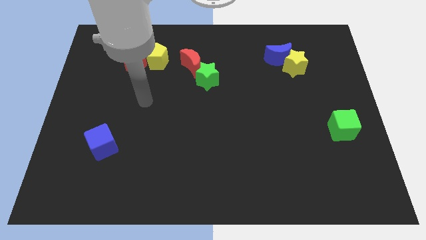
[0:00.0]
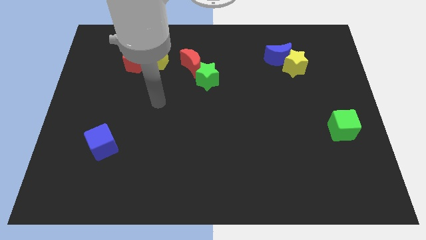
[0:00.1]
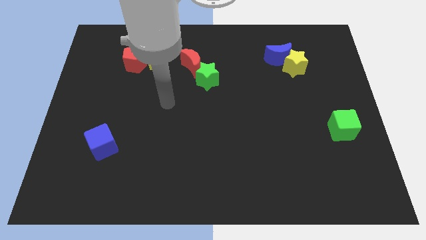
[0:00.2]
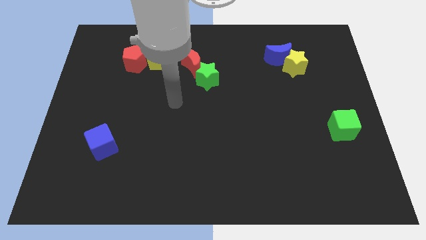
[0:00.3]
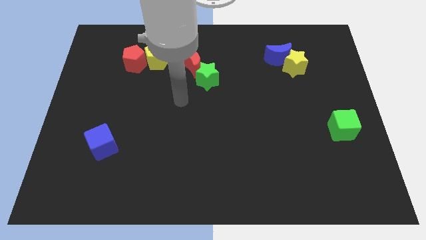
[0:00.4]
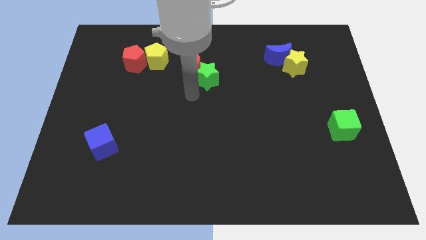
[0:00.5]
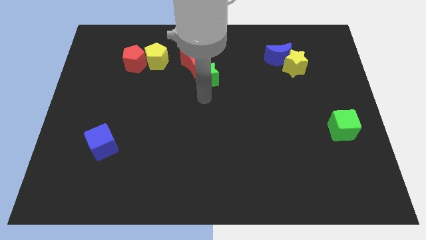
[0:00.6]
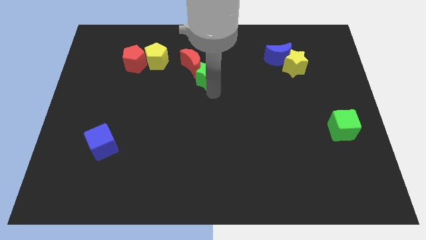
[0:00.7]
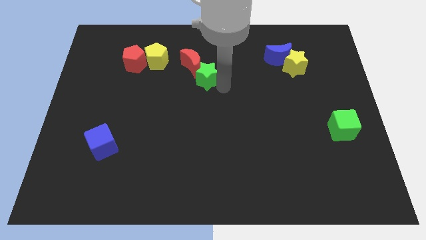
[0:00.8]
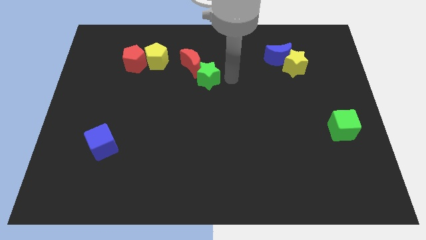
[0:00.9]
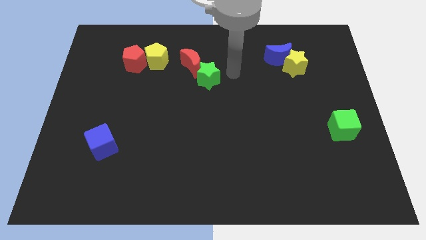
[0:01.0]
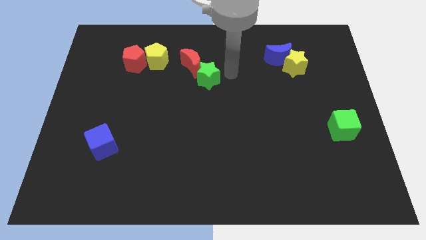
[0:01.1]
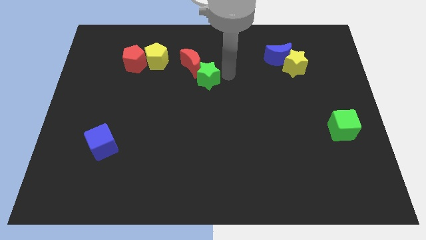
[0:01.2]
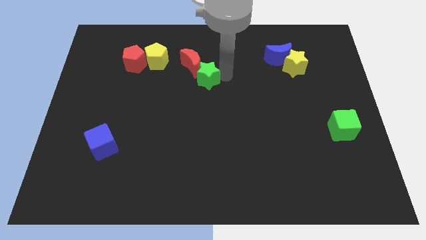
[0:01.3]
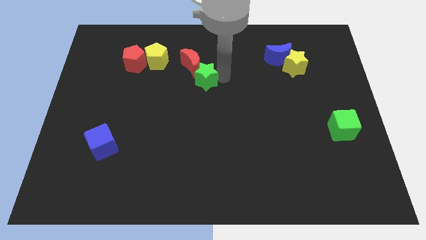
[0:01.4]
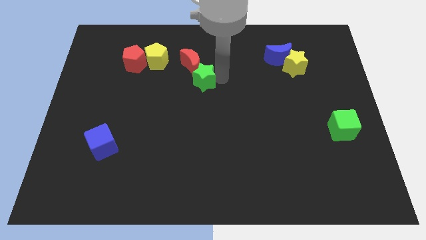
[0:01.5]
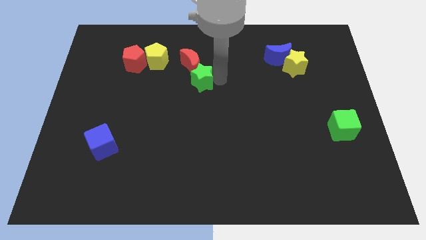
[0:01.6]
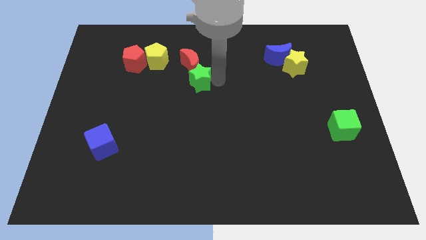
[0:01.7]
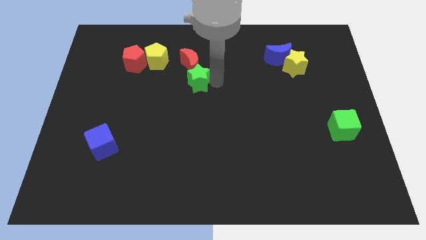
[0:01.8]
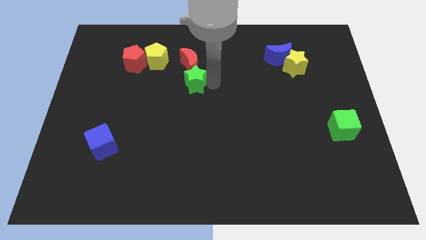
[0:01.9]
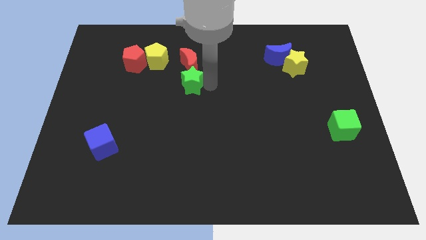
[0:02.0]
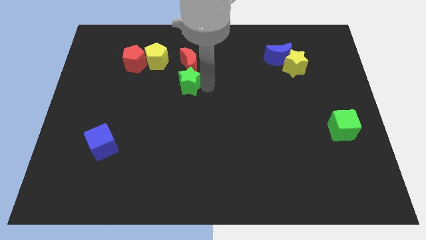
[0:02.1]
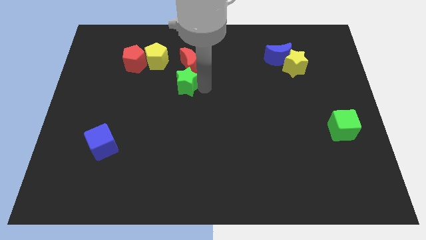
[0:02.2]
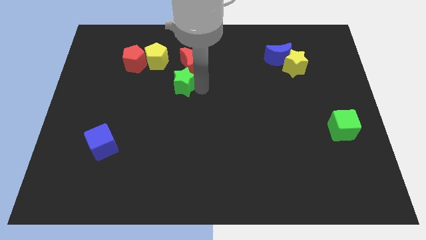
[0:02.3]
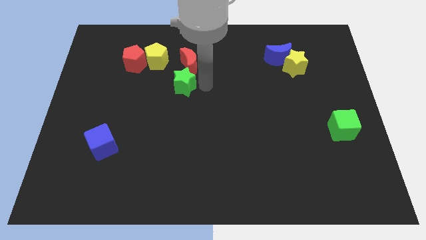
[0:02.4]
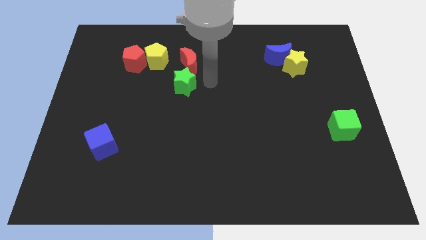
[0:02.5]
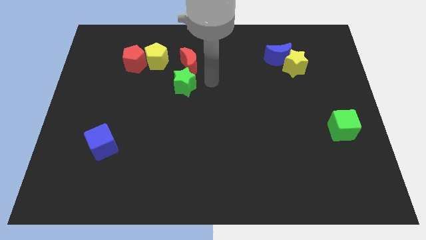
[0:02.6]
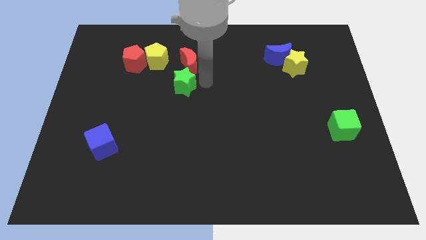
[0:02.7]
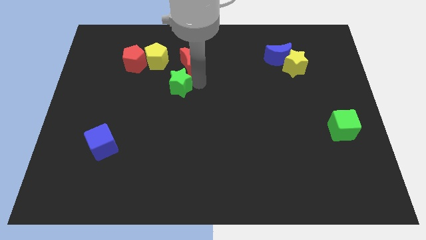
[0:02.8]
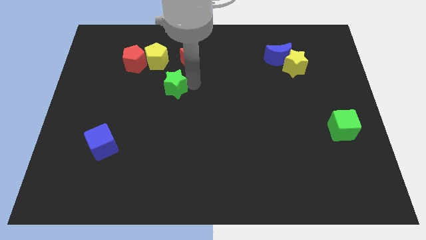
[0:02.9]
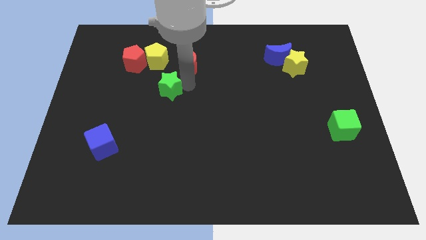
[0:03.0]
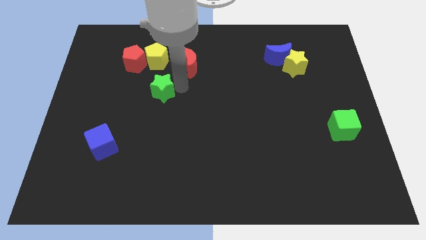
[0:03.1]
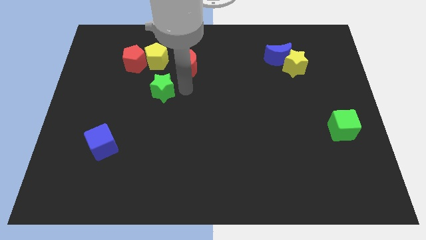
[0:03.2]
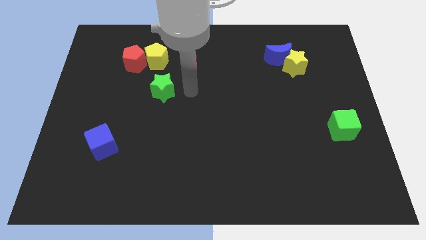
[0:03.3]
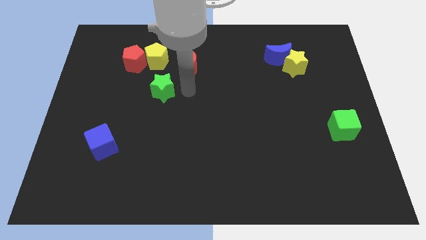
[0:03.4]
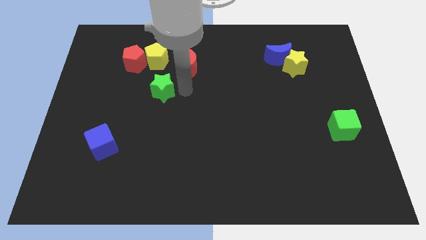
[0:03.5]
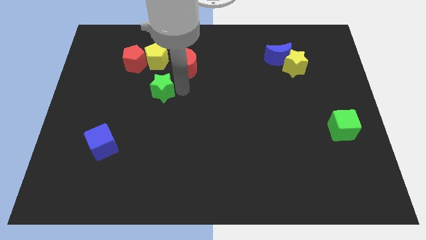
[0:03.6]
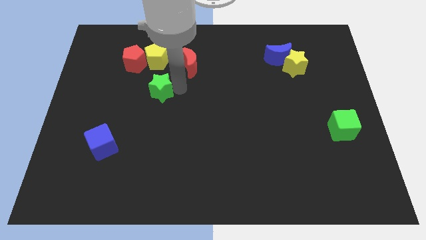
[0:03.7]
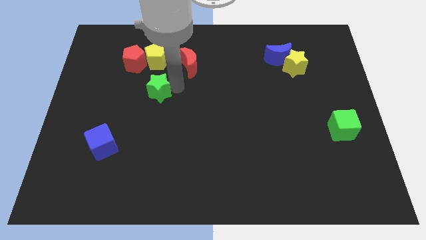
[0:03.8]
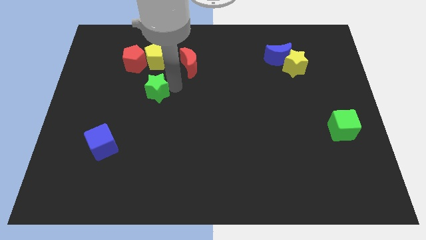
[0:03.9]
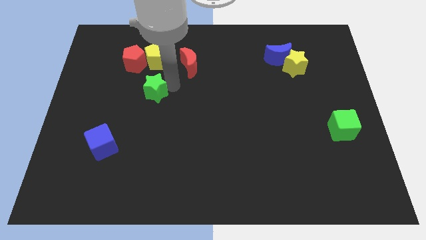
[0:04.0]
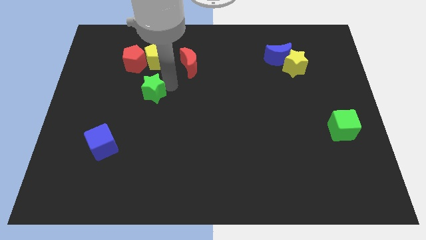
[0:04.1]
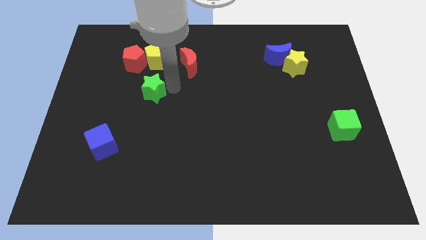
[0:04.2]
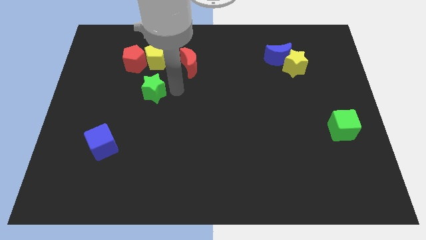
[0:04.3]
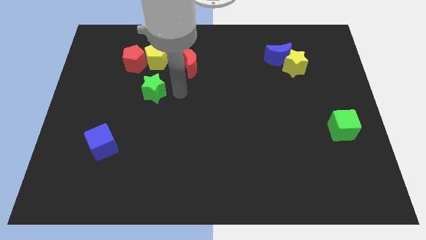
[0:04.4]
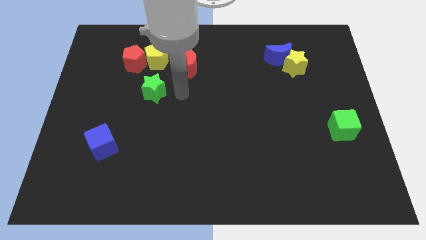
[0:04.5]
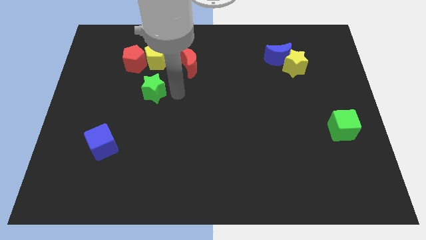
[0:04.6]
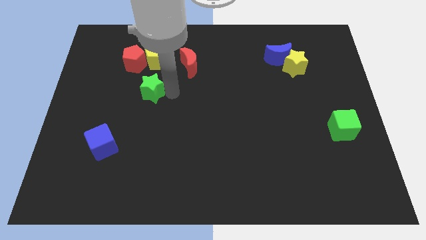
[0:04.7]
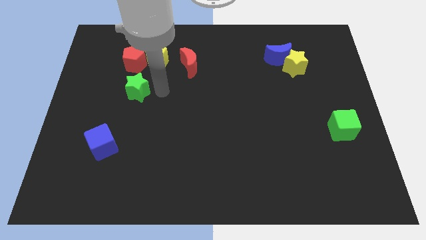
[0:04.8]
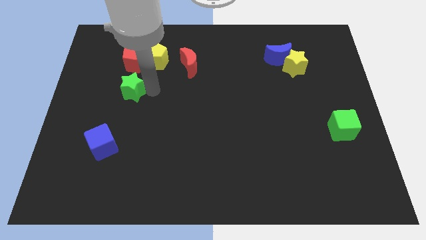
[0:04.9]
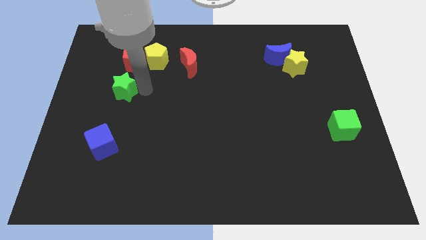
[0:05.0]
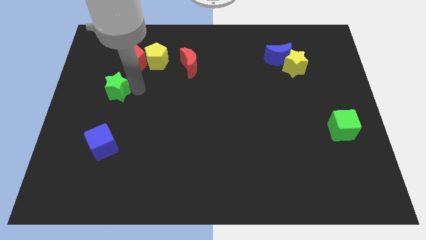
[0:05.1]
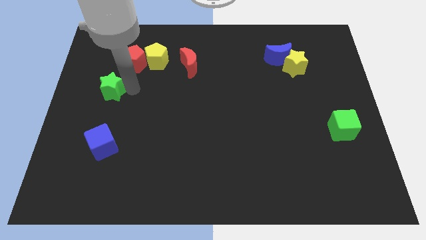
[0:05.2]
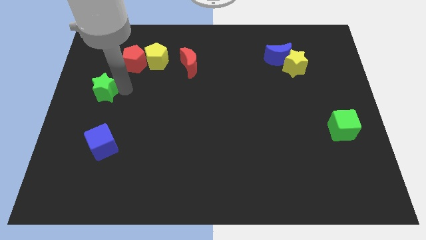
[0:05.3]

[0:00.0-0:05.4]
move the green star to the left side of the board

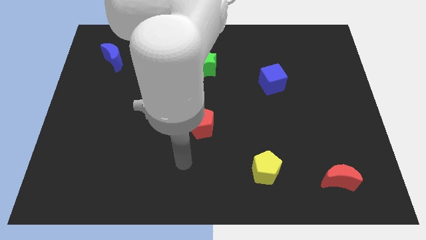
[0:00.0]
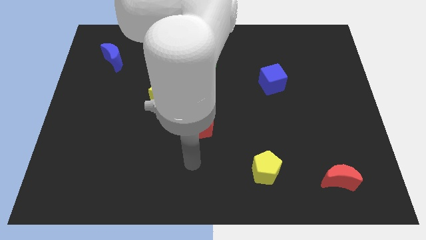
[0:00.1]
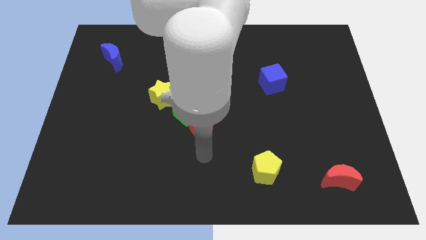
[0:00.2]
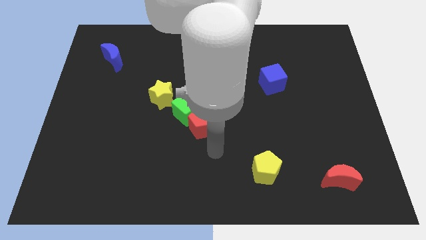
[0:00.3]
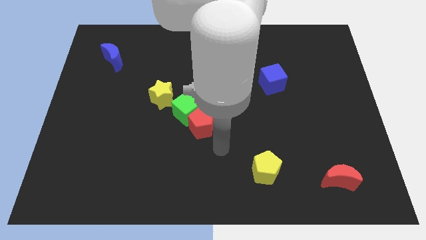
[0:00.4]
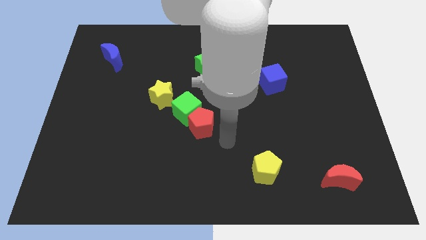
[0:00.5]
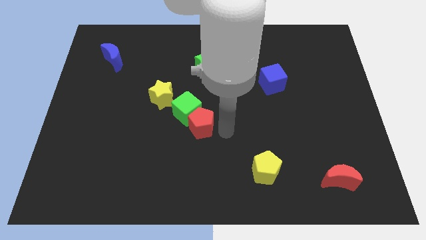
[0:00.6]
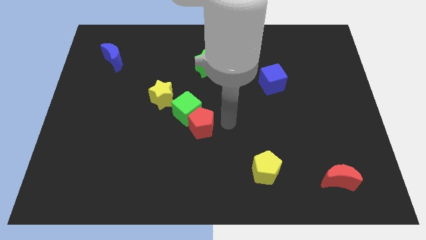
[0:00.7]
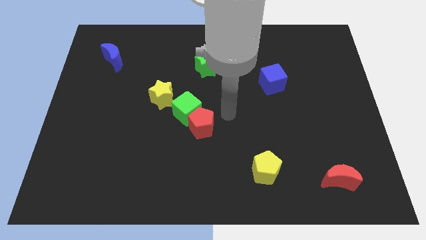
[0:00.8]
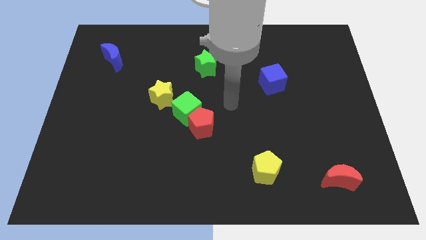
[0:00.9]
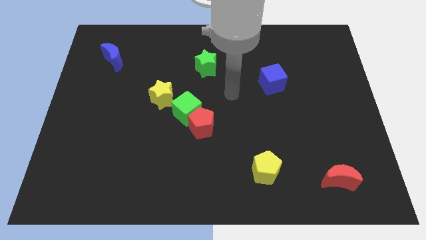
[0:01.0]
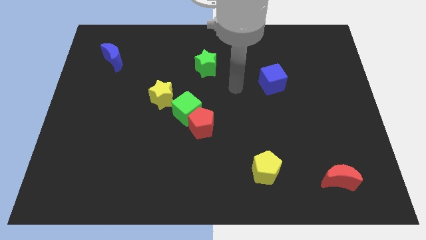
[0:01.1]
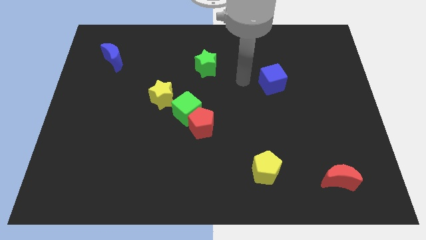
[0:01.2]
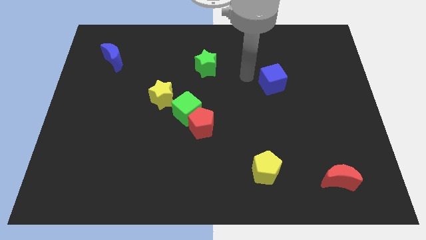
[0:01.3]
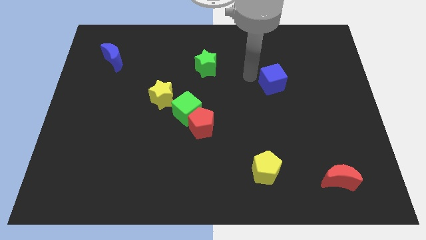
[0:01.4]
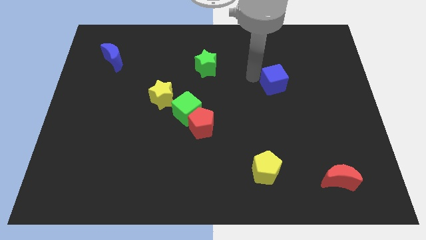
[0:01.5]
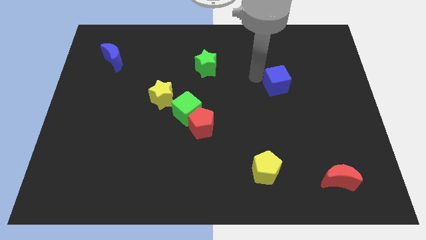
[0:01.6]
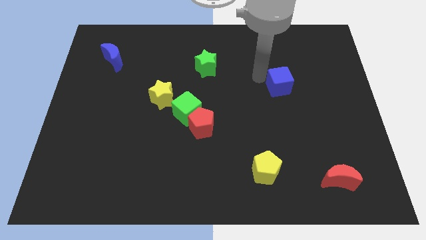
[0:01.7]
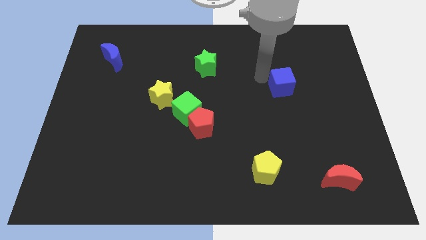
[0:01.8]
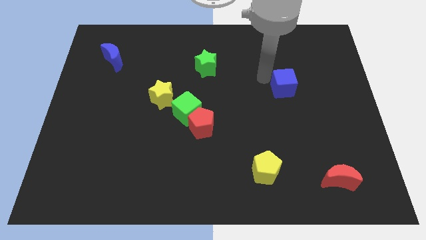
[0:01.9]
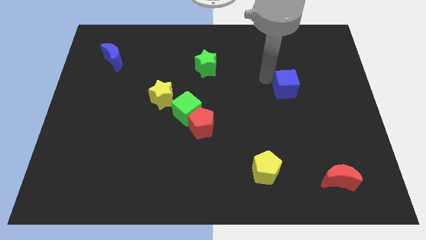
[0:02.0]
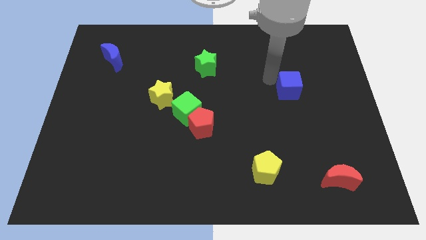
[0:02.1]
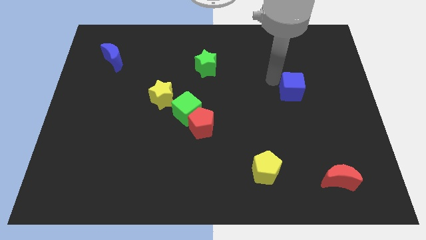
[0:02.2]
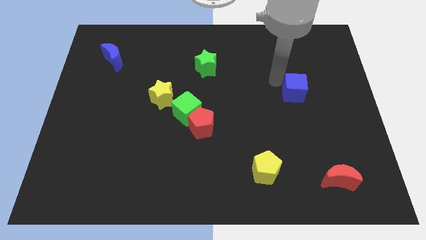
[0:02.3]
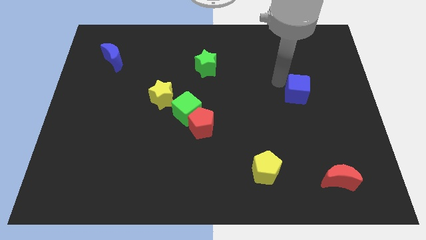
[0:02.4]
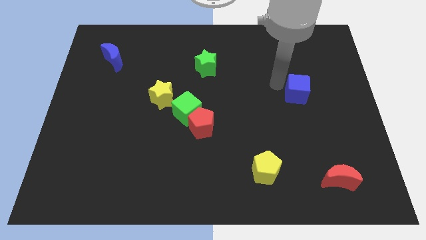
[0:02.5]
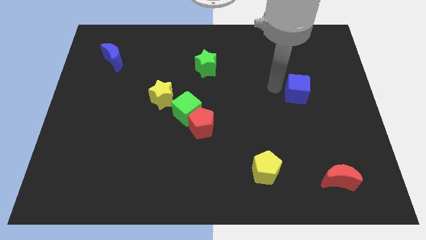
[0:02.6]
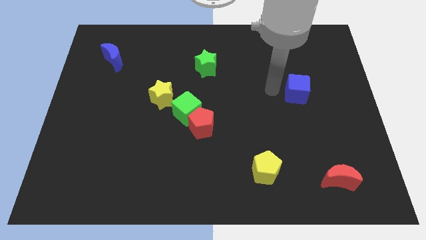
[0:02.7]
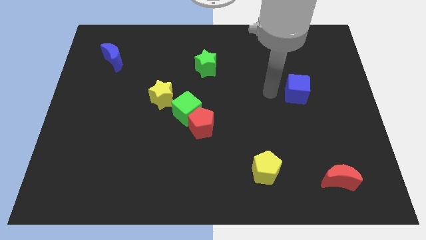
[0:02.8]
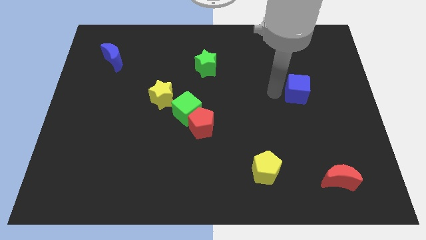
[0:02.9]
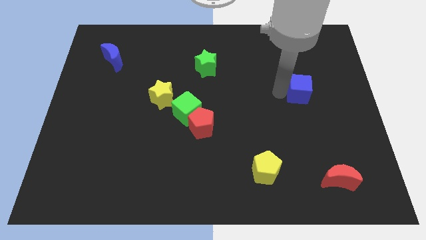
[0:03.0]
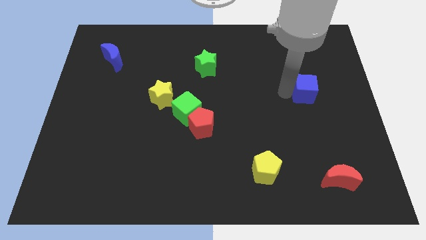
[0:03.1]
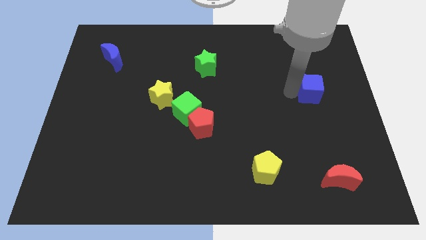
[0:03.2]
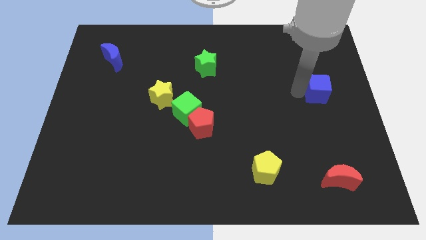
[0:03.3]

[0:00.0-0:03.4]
move the blue cube to the center right
